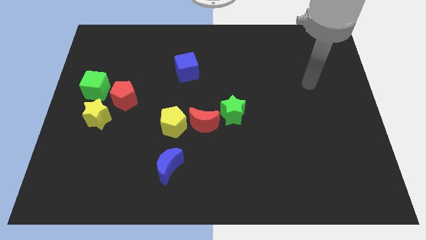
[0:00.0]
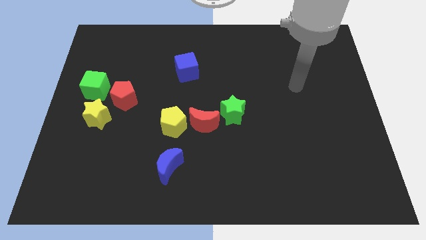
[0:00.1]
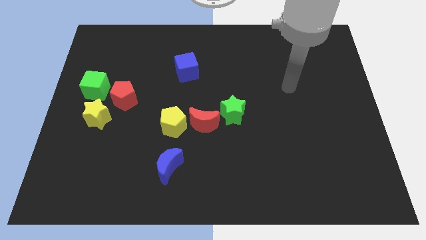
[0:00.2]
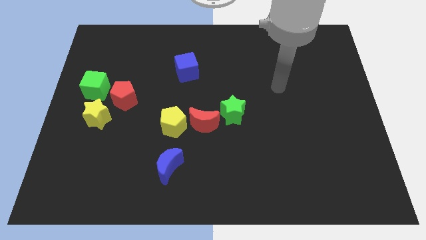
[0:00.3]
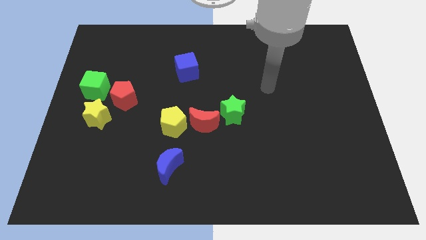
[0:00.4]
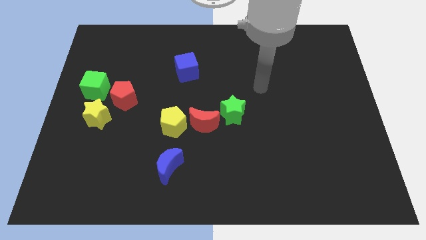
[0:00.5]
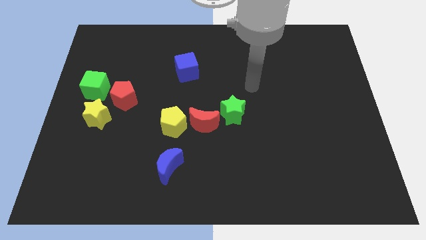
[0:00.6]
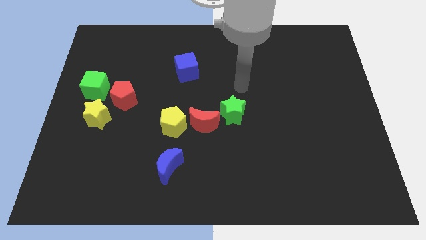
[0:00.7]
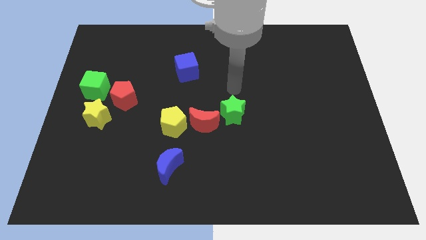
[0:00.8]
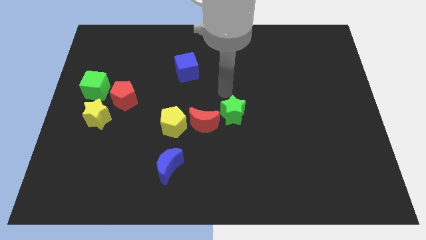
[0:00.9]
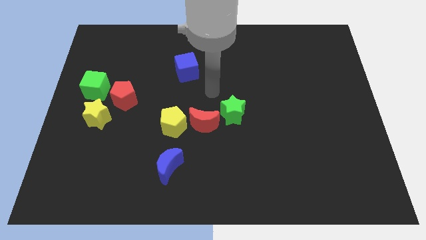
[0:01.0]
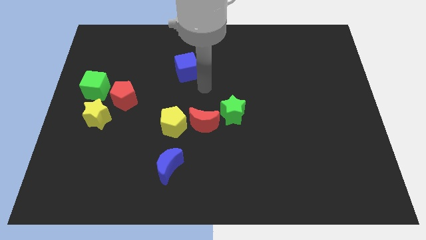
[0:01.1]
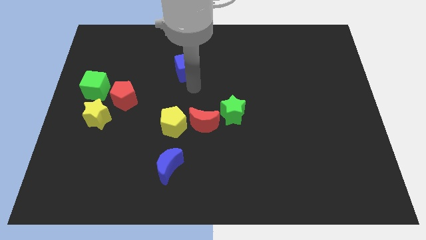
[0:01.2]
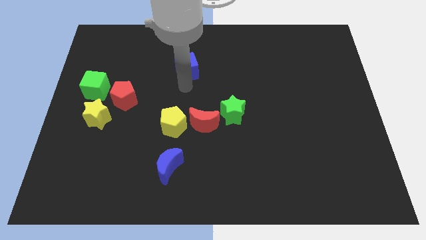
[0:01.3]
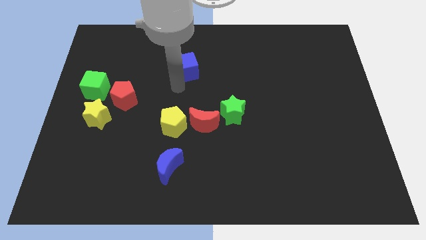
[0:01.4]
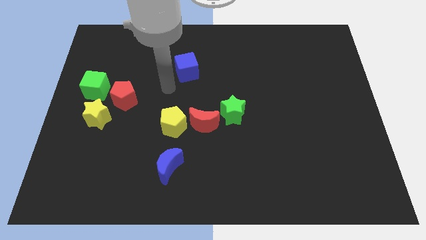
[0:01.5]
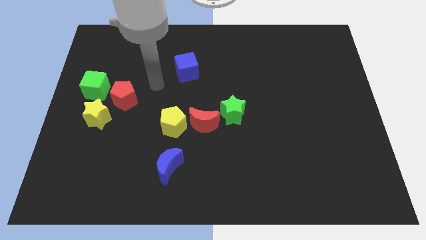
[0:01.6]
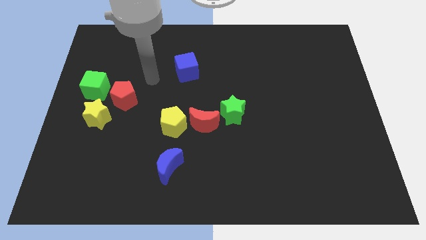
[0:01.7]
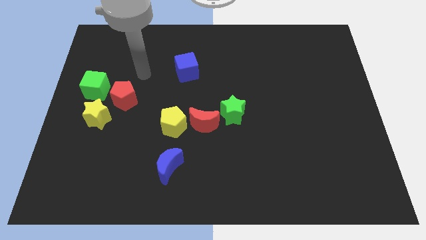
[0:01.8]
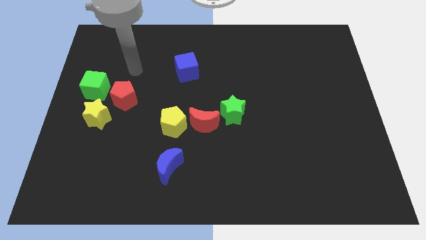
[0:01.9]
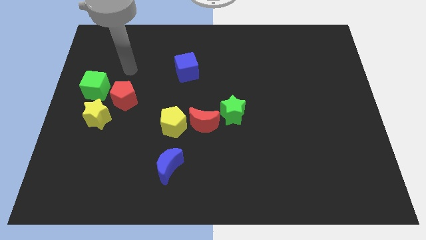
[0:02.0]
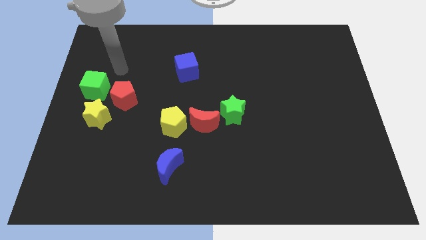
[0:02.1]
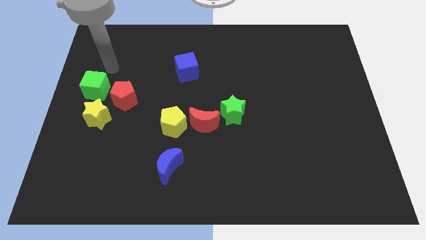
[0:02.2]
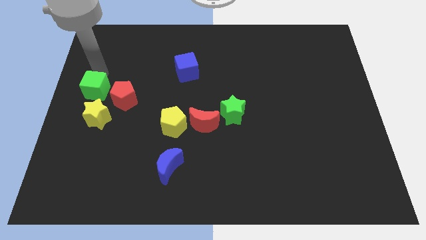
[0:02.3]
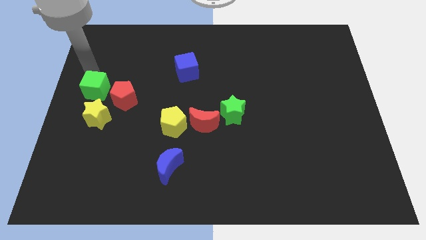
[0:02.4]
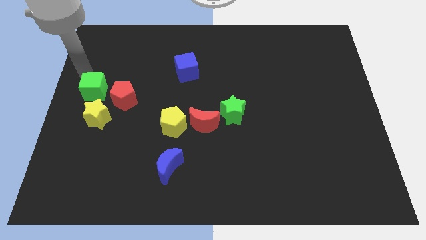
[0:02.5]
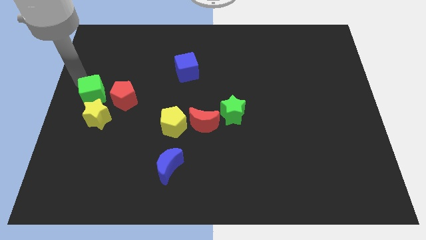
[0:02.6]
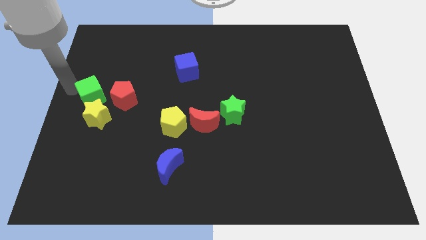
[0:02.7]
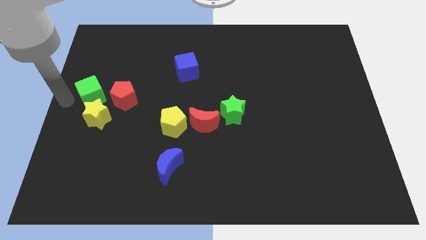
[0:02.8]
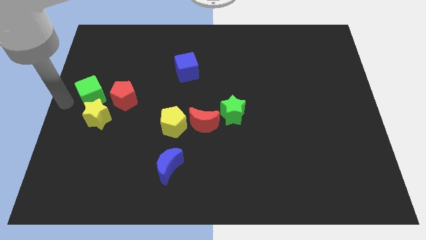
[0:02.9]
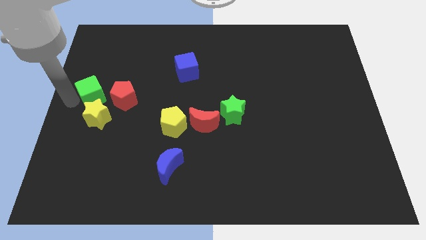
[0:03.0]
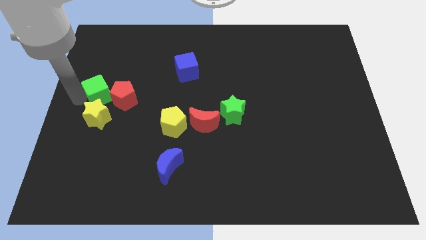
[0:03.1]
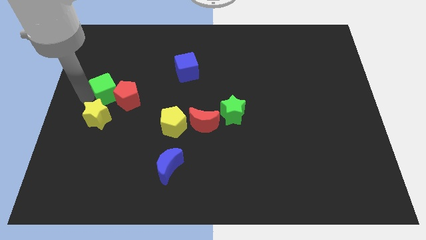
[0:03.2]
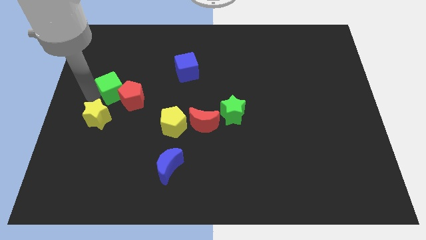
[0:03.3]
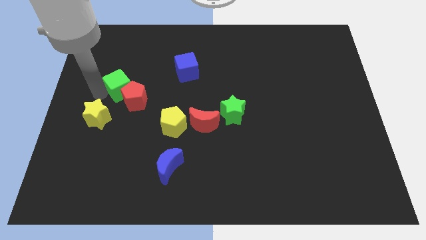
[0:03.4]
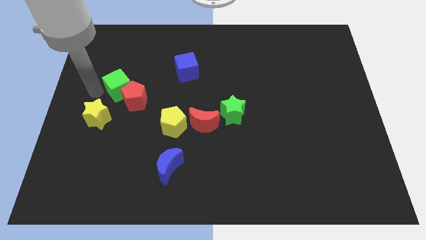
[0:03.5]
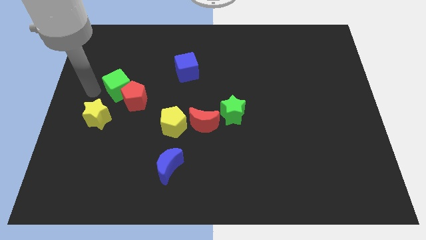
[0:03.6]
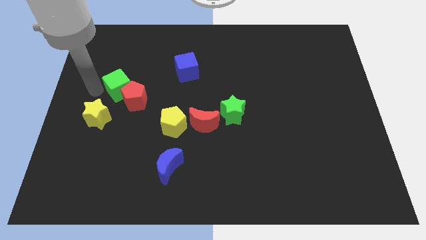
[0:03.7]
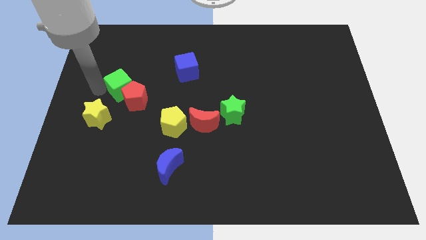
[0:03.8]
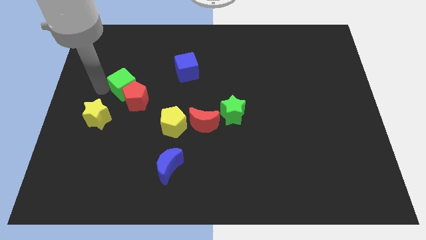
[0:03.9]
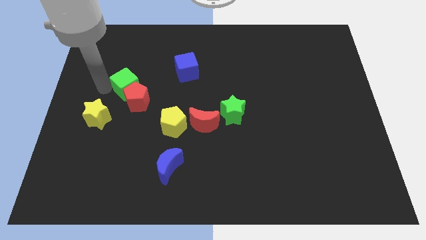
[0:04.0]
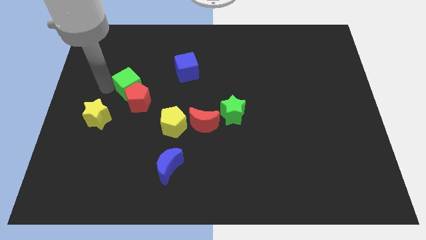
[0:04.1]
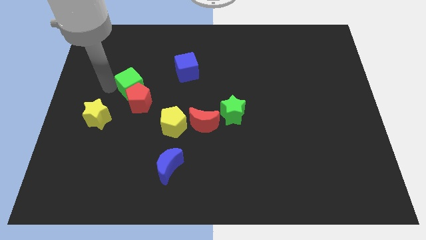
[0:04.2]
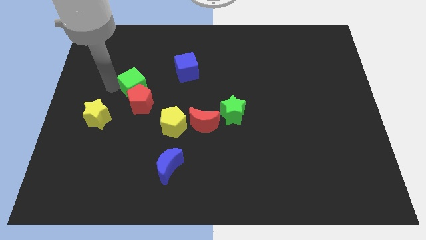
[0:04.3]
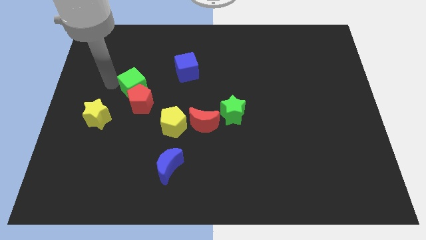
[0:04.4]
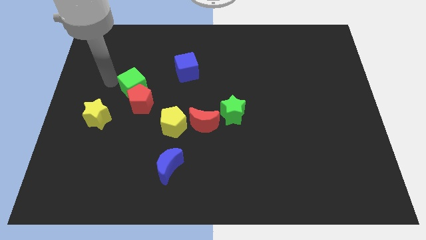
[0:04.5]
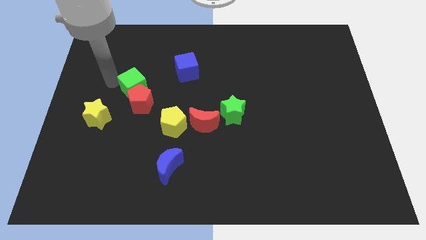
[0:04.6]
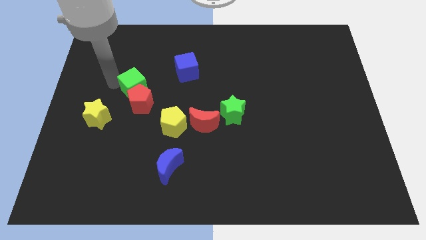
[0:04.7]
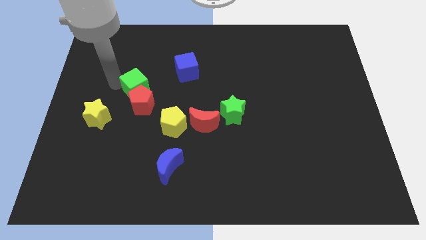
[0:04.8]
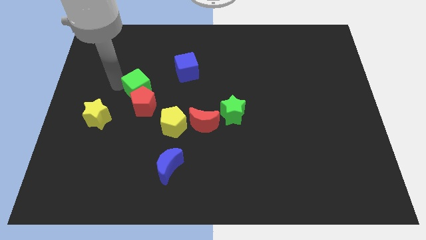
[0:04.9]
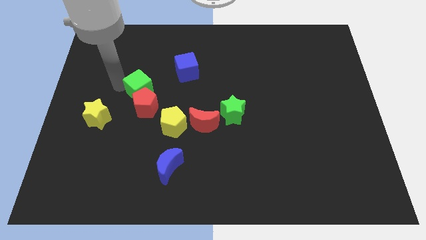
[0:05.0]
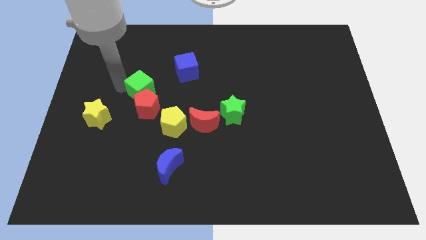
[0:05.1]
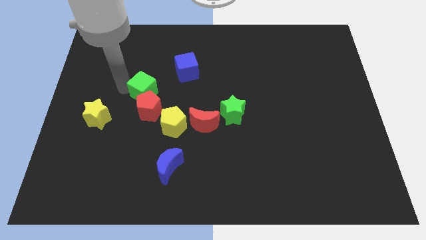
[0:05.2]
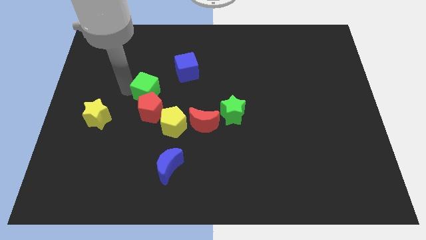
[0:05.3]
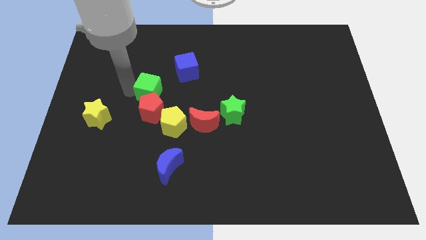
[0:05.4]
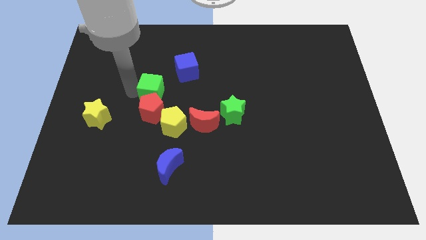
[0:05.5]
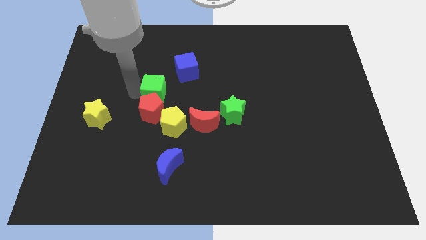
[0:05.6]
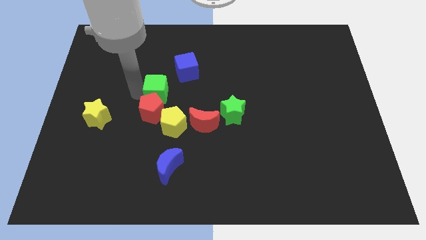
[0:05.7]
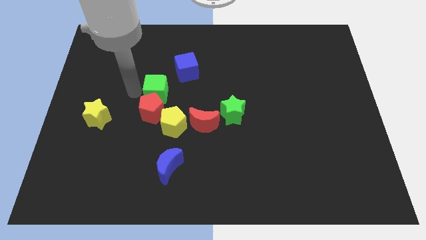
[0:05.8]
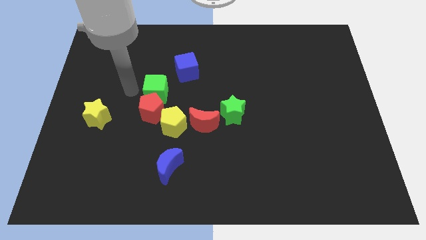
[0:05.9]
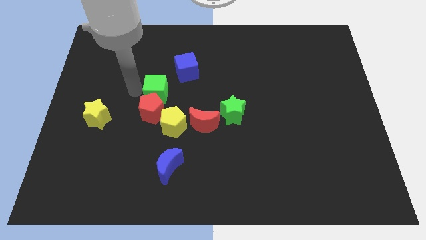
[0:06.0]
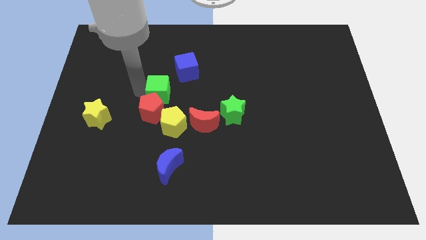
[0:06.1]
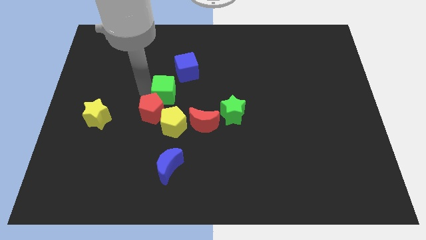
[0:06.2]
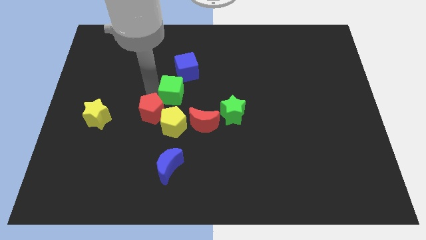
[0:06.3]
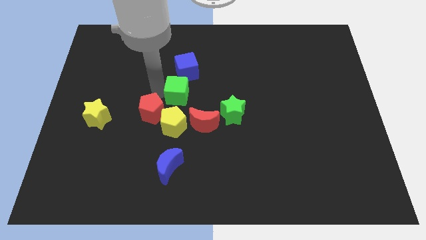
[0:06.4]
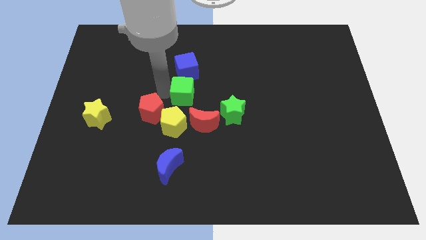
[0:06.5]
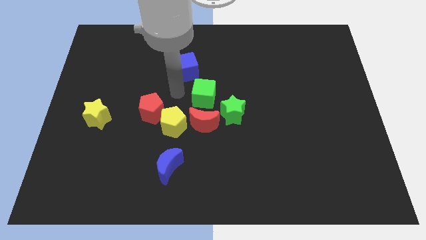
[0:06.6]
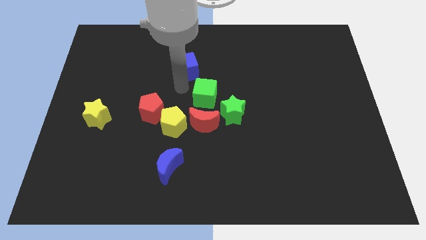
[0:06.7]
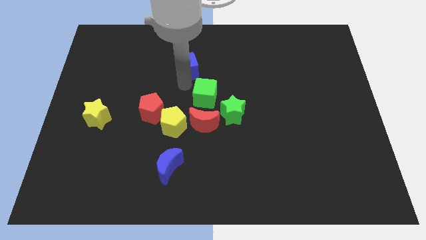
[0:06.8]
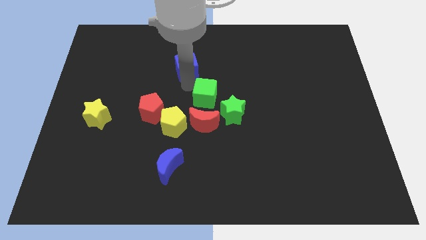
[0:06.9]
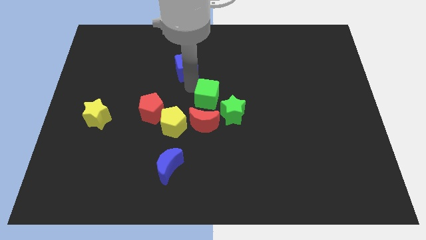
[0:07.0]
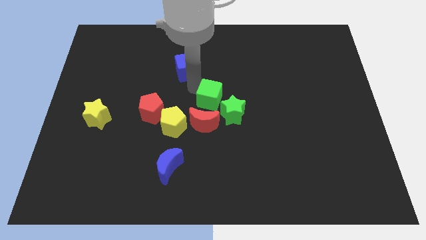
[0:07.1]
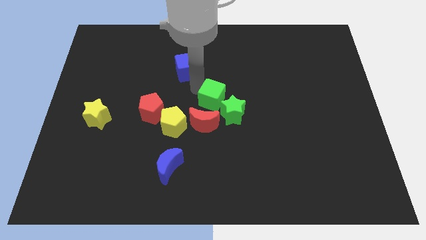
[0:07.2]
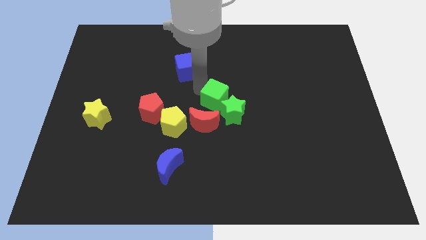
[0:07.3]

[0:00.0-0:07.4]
put the green cube close to the green star
